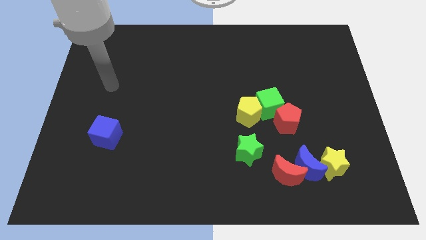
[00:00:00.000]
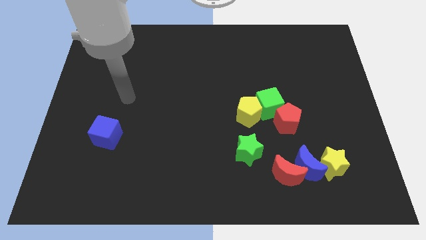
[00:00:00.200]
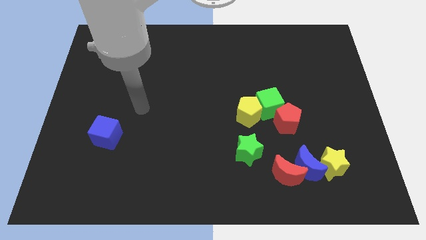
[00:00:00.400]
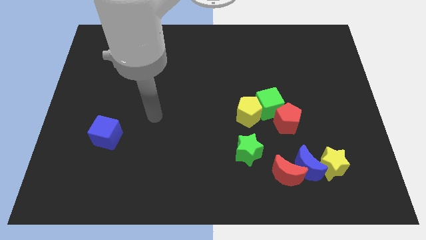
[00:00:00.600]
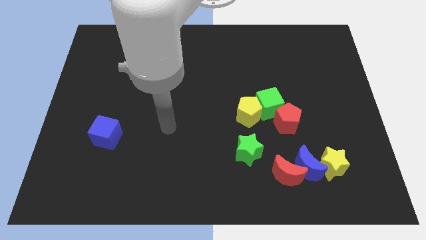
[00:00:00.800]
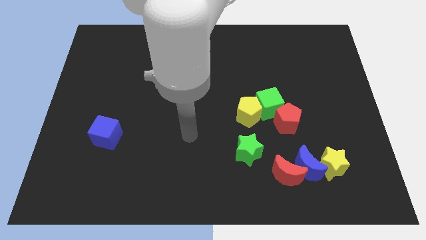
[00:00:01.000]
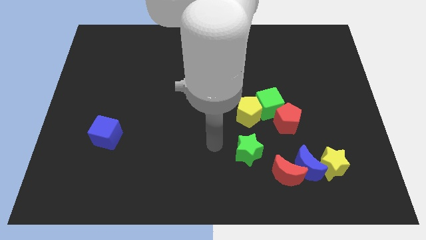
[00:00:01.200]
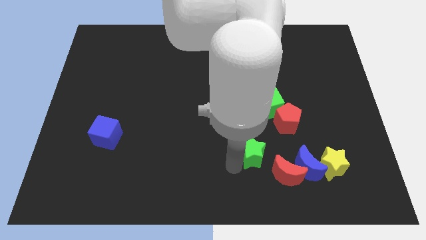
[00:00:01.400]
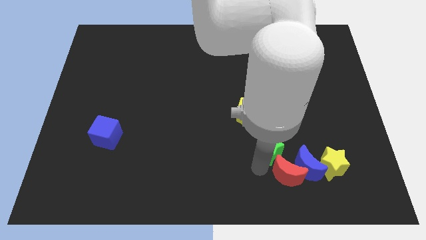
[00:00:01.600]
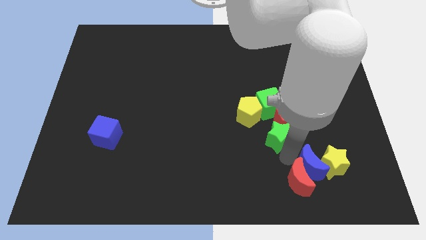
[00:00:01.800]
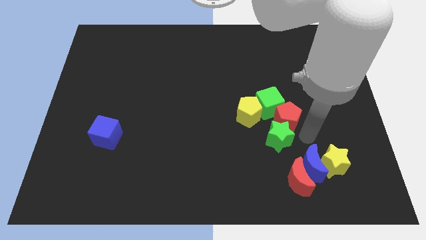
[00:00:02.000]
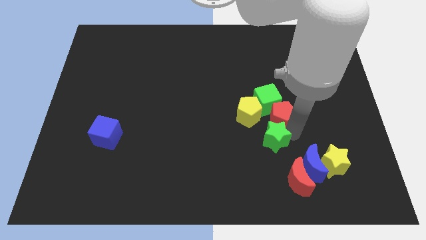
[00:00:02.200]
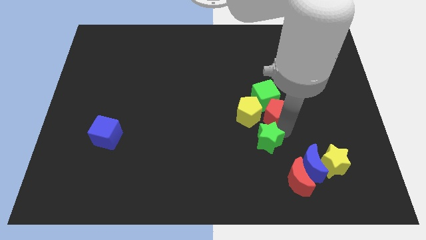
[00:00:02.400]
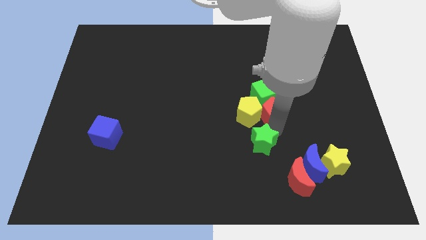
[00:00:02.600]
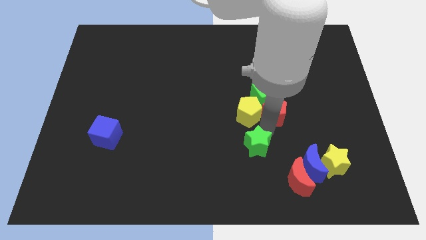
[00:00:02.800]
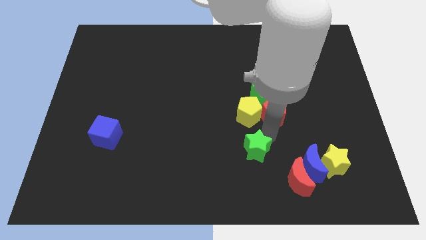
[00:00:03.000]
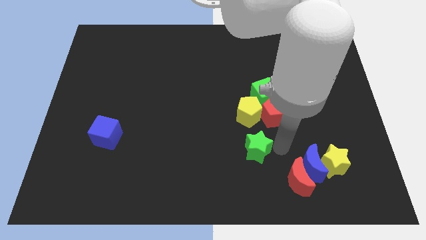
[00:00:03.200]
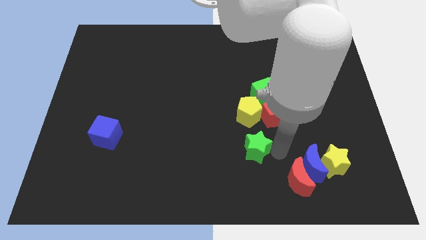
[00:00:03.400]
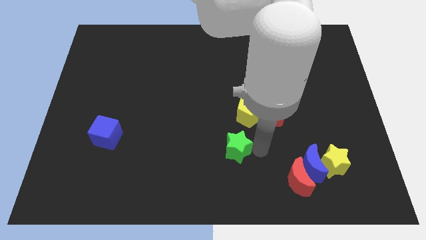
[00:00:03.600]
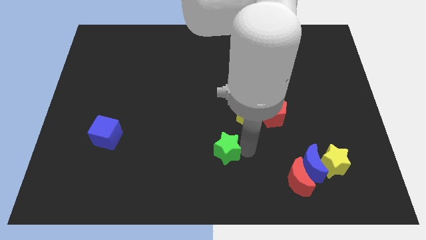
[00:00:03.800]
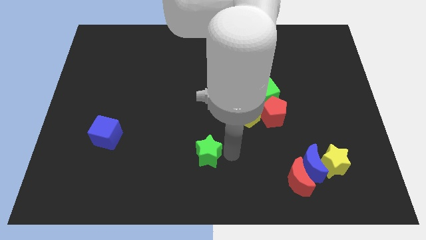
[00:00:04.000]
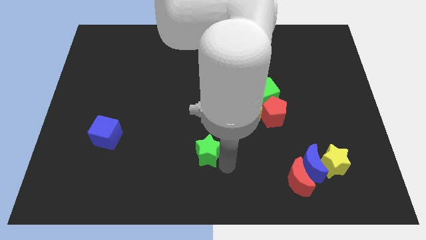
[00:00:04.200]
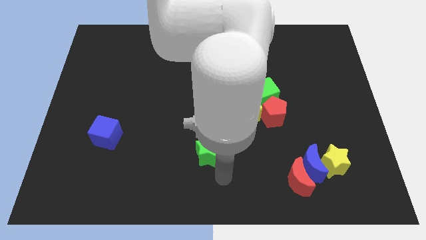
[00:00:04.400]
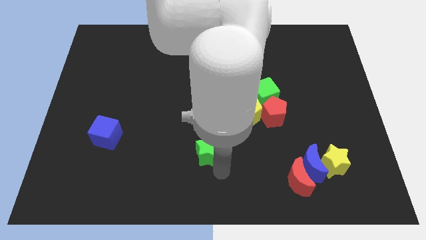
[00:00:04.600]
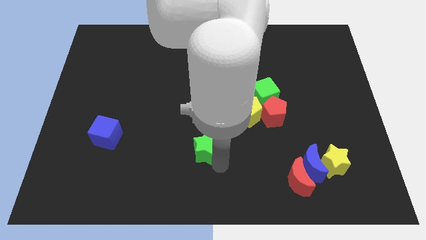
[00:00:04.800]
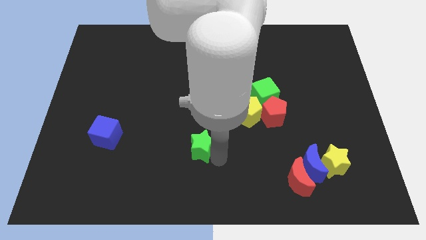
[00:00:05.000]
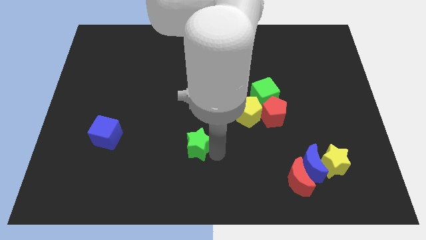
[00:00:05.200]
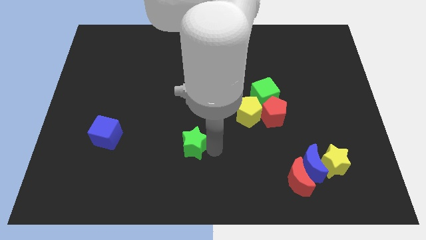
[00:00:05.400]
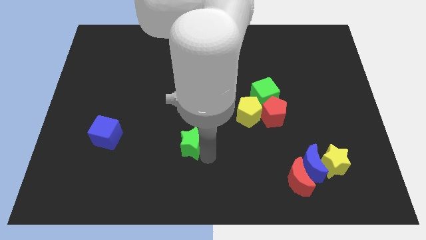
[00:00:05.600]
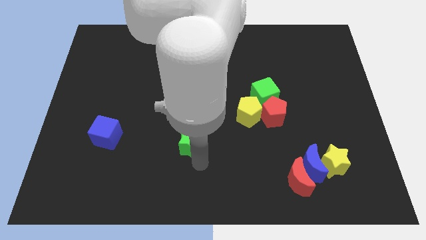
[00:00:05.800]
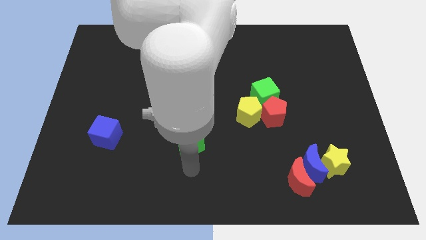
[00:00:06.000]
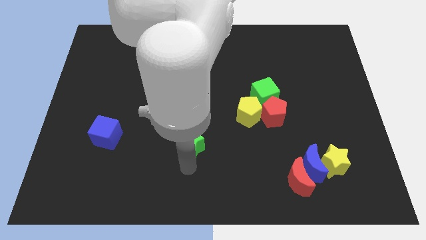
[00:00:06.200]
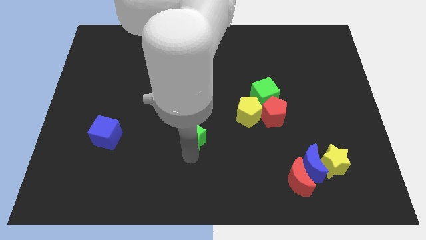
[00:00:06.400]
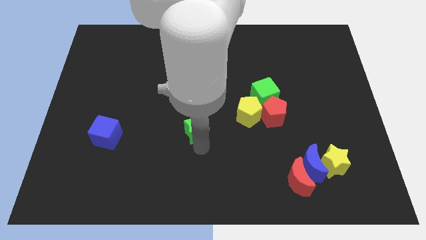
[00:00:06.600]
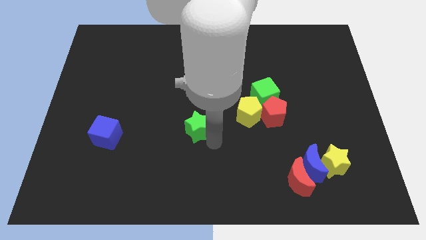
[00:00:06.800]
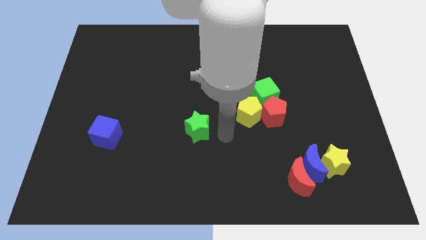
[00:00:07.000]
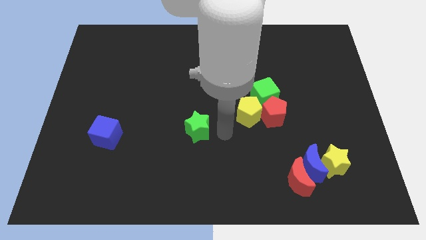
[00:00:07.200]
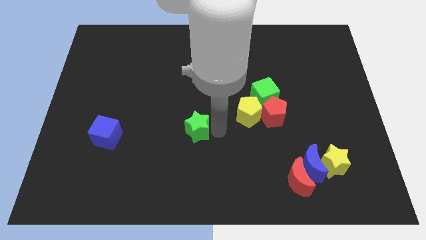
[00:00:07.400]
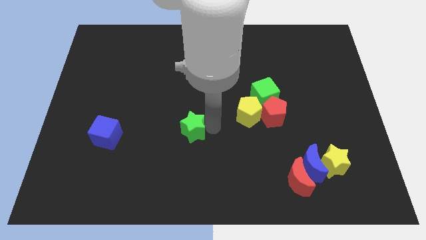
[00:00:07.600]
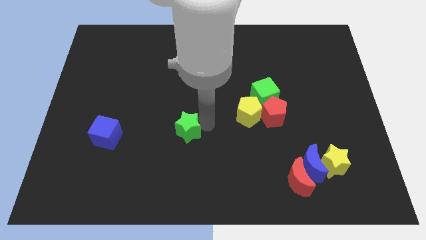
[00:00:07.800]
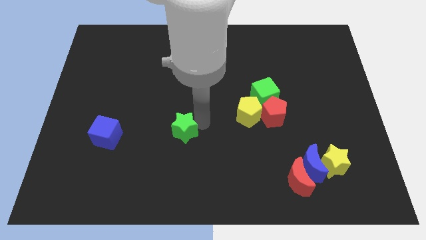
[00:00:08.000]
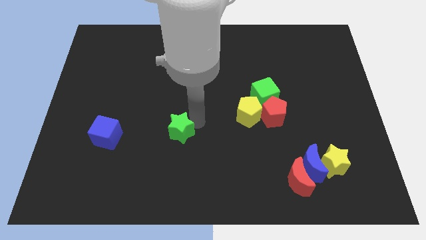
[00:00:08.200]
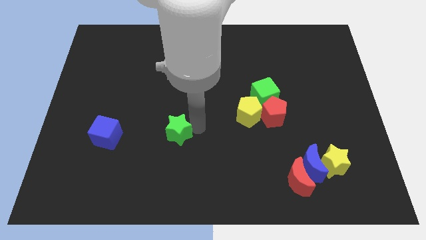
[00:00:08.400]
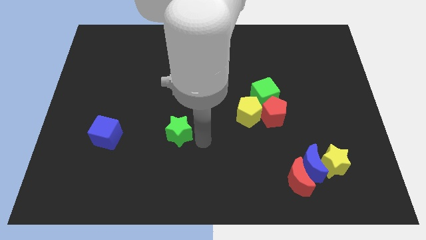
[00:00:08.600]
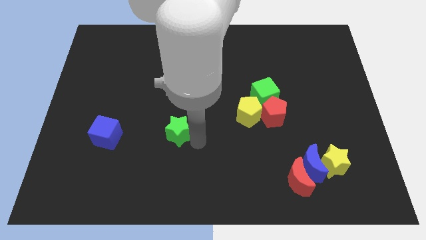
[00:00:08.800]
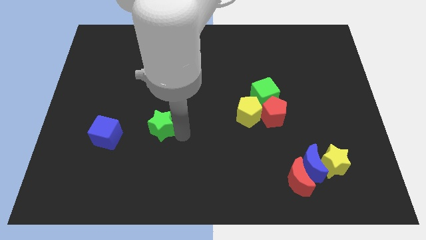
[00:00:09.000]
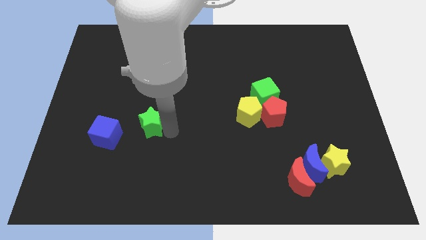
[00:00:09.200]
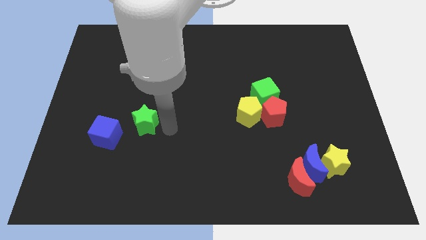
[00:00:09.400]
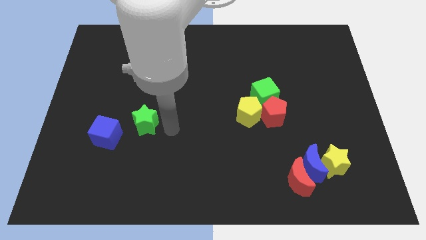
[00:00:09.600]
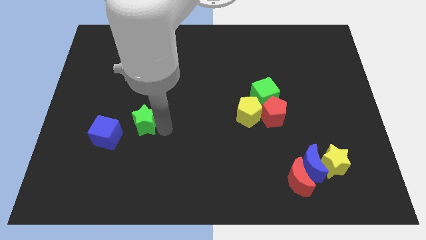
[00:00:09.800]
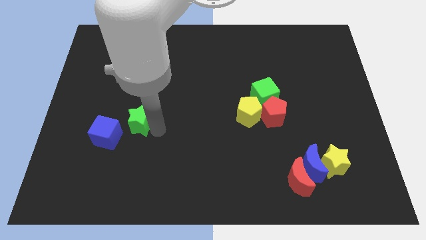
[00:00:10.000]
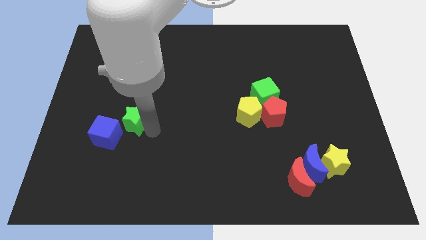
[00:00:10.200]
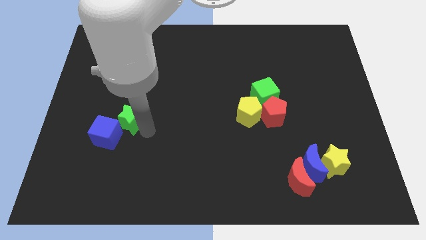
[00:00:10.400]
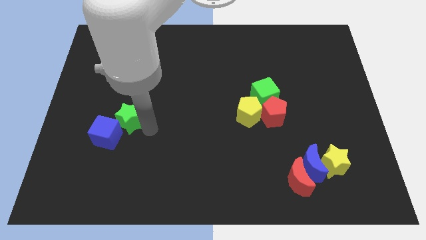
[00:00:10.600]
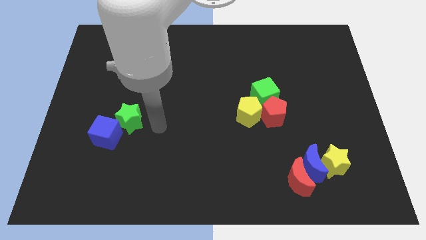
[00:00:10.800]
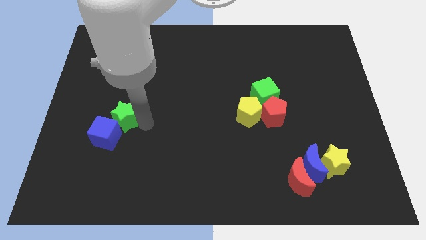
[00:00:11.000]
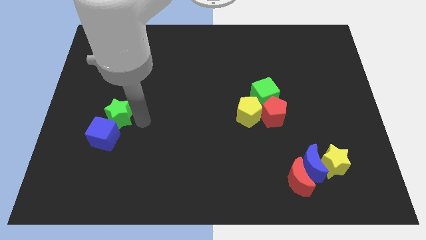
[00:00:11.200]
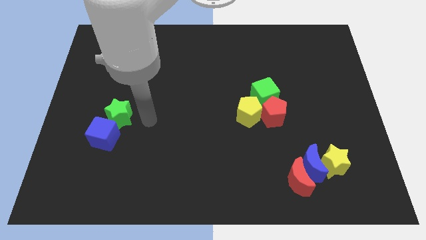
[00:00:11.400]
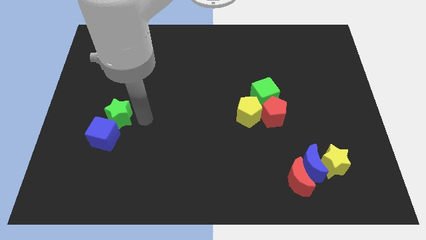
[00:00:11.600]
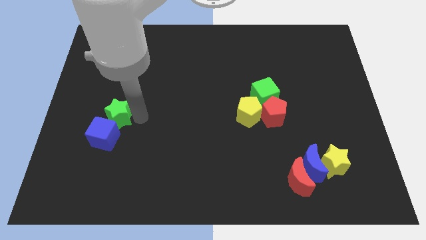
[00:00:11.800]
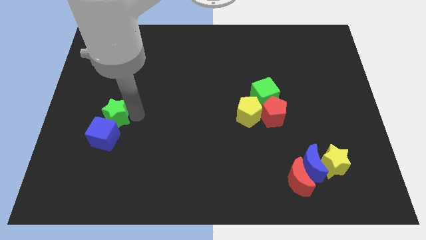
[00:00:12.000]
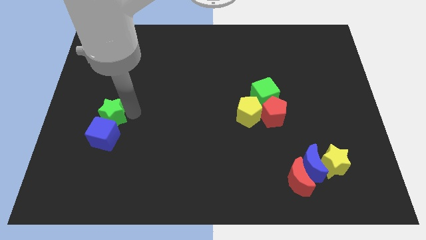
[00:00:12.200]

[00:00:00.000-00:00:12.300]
put the green star to the top left side of the blue cube

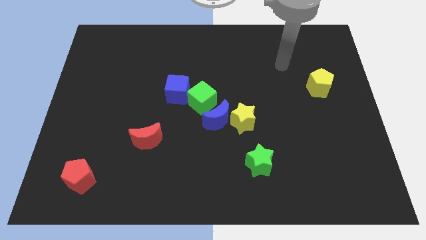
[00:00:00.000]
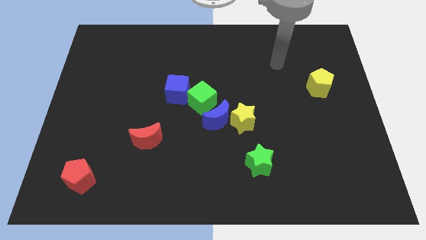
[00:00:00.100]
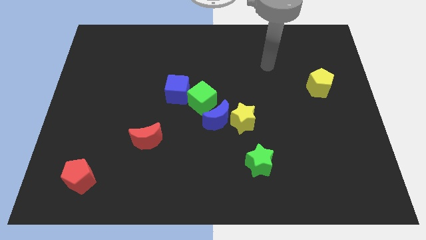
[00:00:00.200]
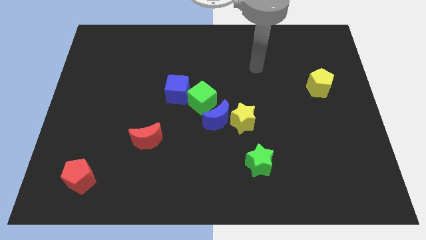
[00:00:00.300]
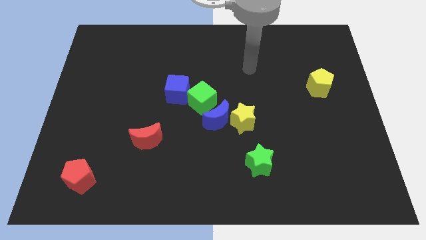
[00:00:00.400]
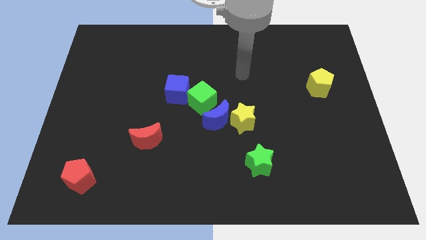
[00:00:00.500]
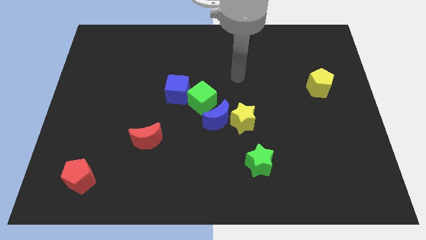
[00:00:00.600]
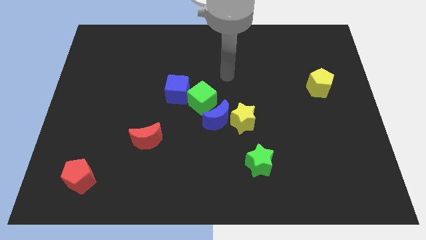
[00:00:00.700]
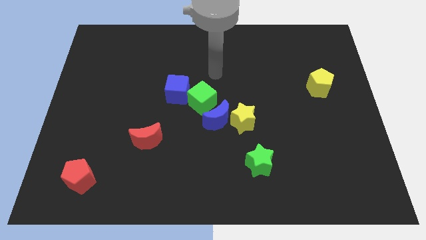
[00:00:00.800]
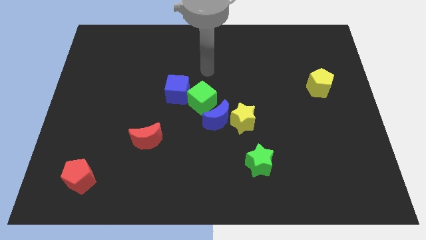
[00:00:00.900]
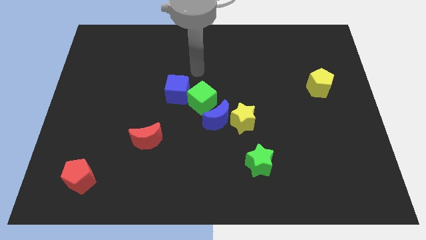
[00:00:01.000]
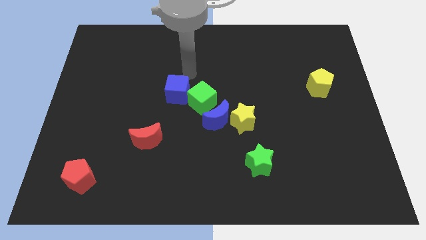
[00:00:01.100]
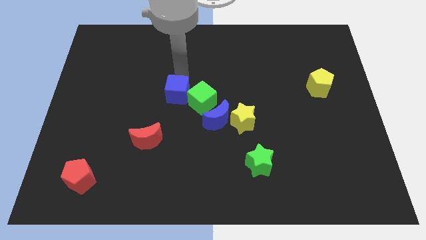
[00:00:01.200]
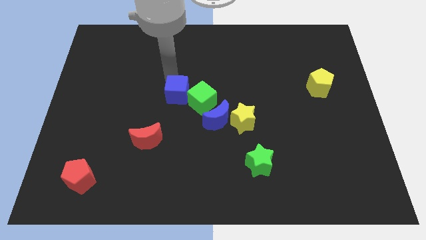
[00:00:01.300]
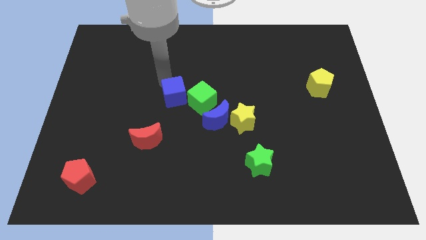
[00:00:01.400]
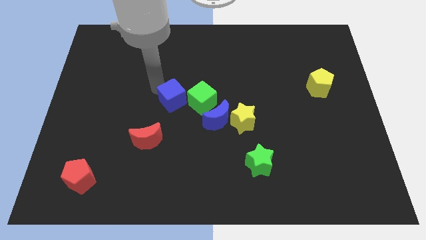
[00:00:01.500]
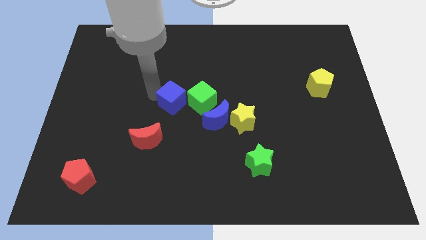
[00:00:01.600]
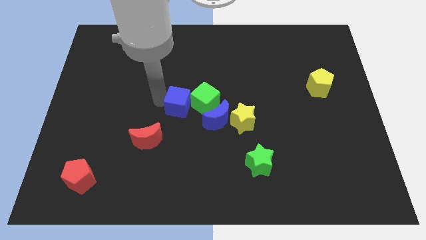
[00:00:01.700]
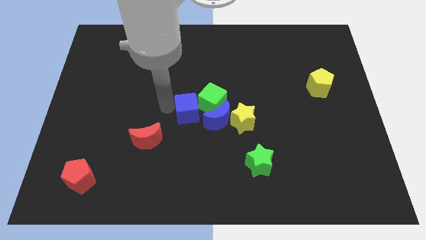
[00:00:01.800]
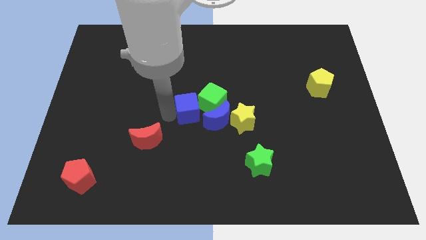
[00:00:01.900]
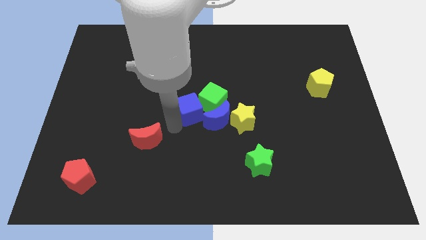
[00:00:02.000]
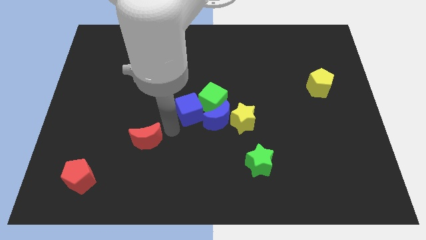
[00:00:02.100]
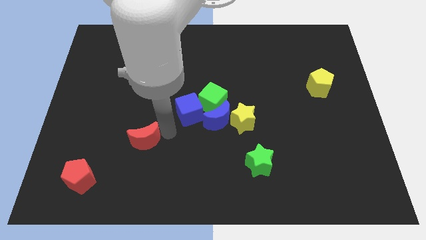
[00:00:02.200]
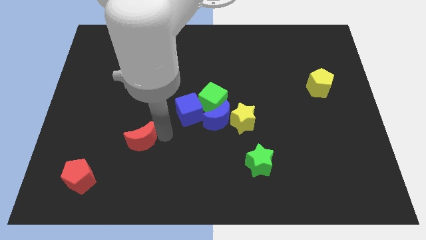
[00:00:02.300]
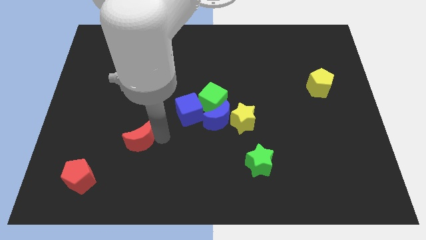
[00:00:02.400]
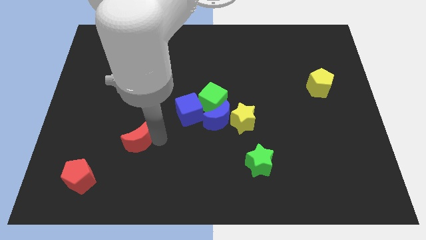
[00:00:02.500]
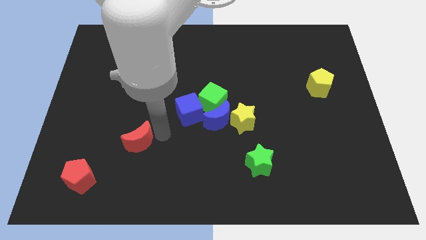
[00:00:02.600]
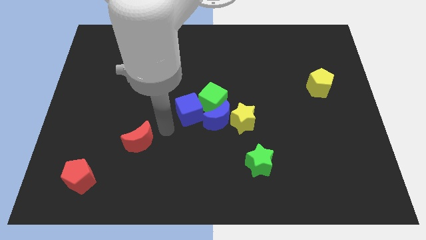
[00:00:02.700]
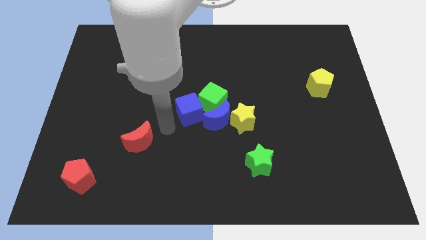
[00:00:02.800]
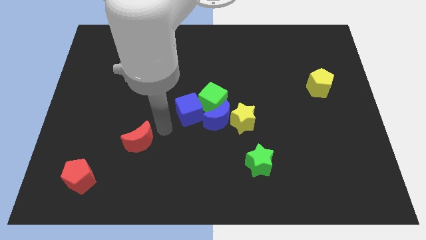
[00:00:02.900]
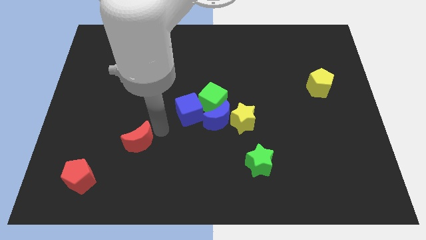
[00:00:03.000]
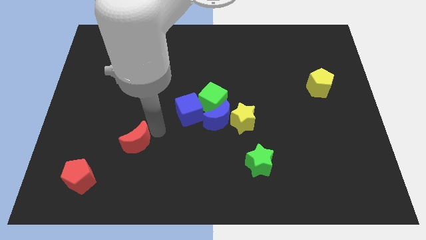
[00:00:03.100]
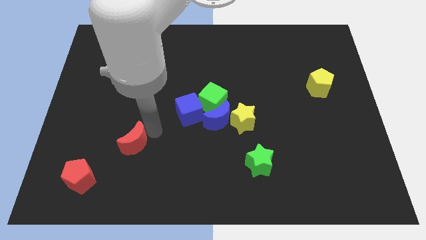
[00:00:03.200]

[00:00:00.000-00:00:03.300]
push the red moon to the top right of the red pentagon
